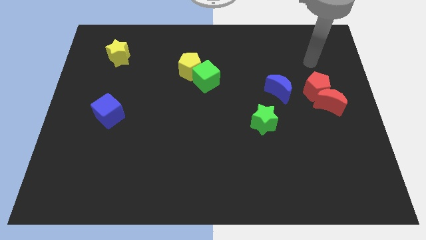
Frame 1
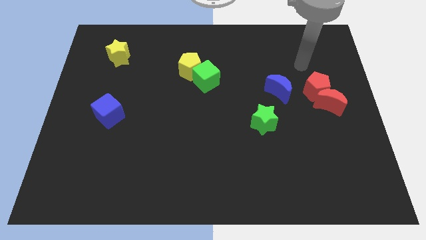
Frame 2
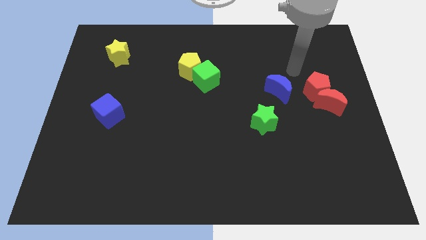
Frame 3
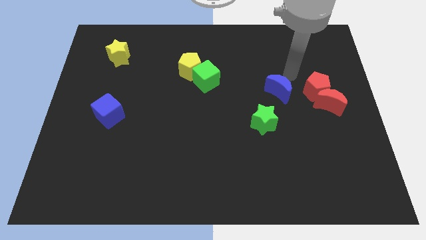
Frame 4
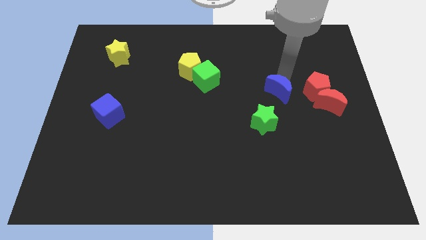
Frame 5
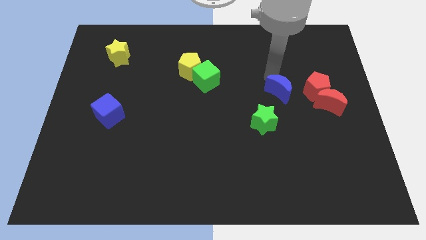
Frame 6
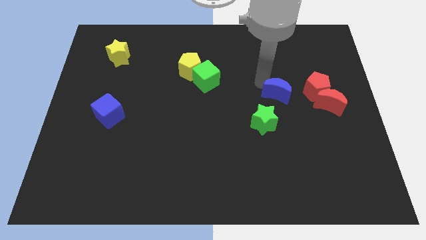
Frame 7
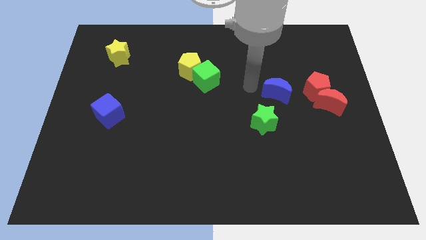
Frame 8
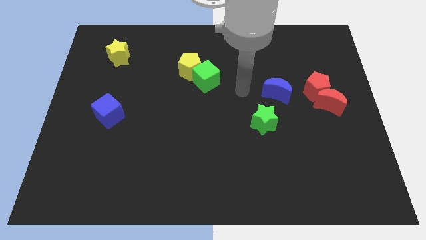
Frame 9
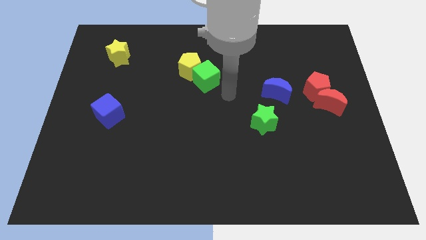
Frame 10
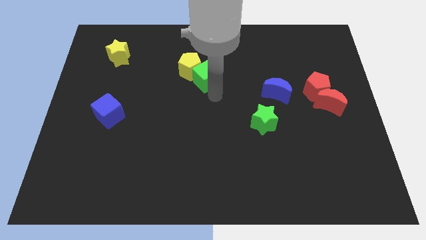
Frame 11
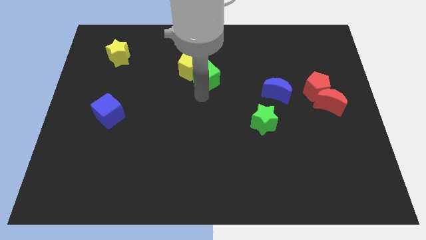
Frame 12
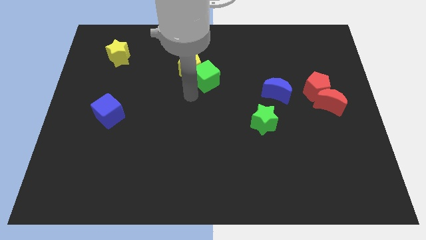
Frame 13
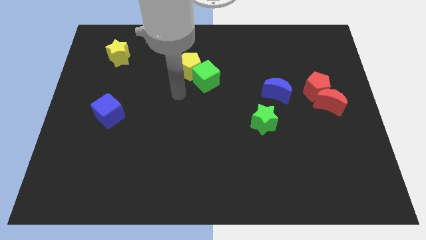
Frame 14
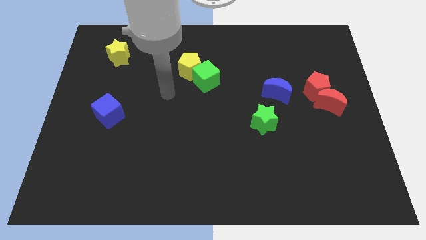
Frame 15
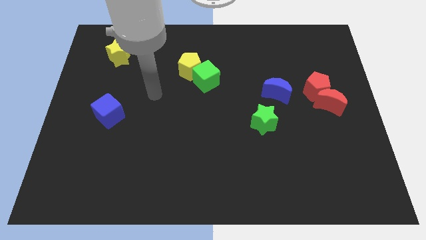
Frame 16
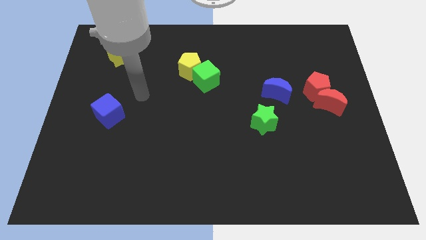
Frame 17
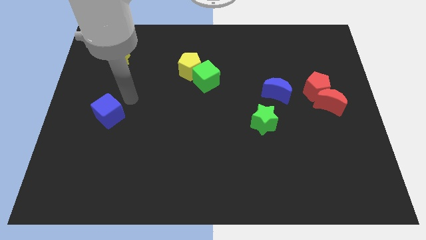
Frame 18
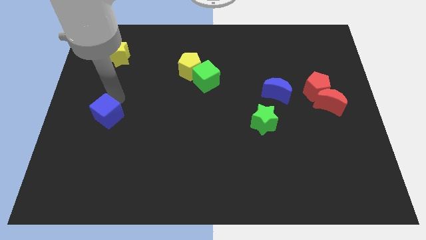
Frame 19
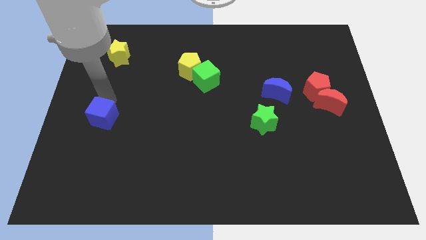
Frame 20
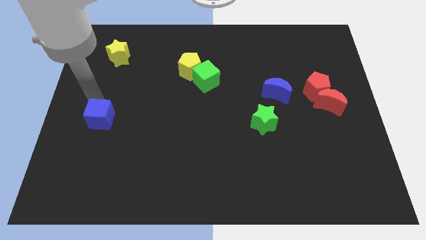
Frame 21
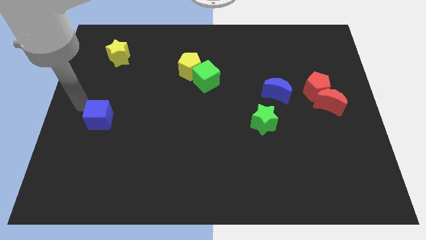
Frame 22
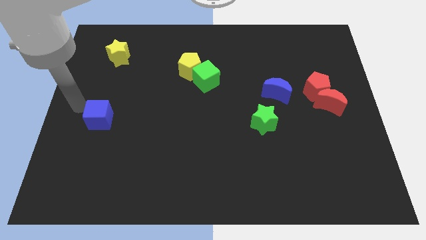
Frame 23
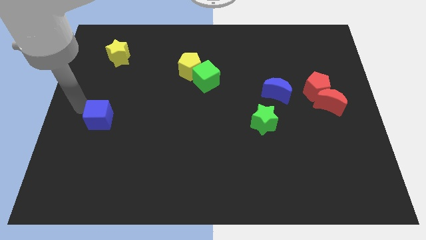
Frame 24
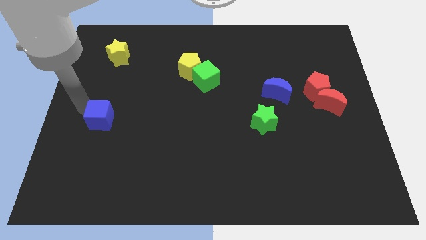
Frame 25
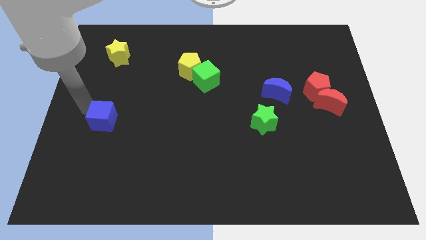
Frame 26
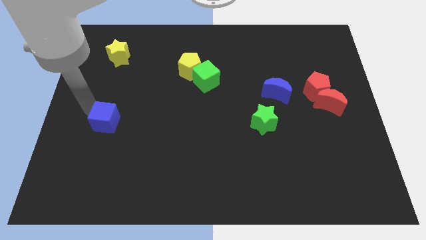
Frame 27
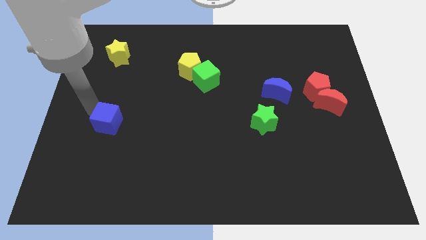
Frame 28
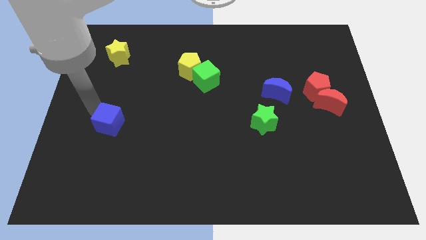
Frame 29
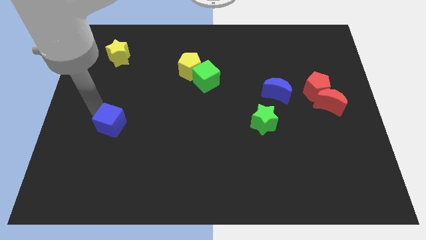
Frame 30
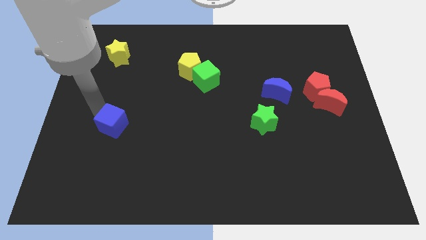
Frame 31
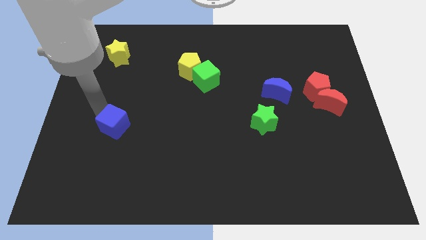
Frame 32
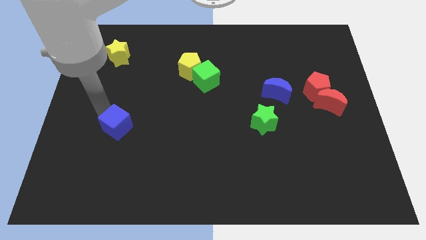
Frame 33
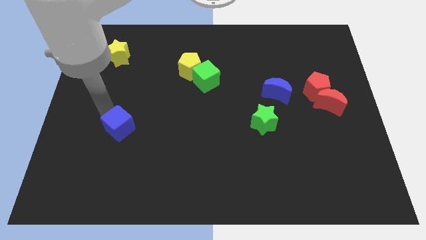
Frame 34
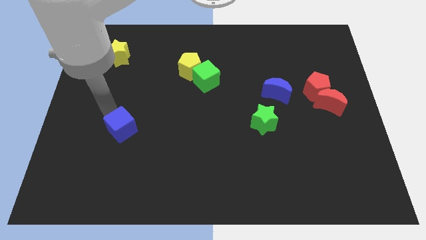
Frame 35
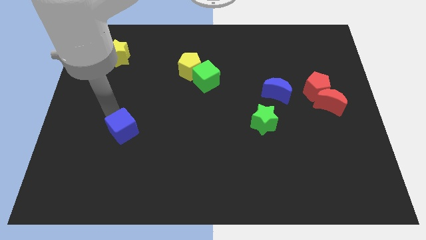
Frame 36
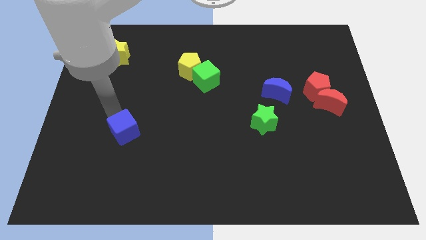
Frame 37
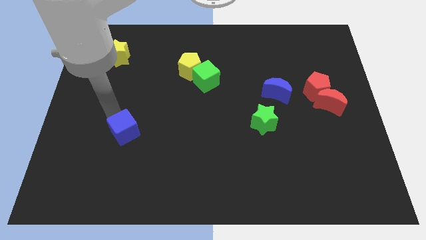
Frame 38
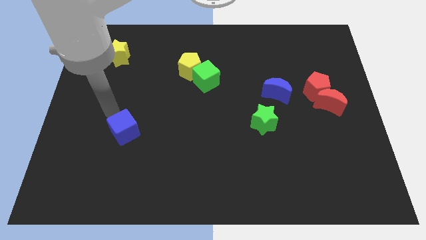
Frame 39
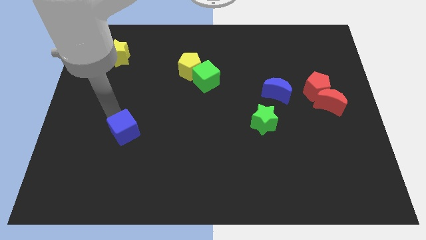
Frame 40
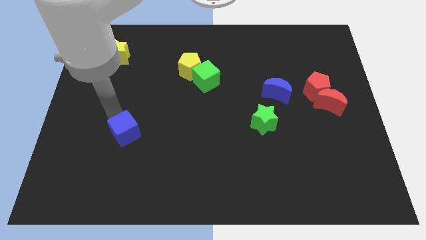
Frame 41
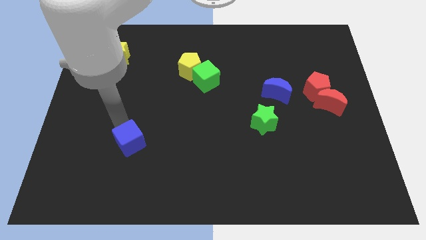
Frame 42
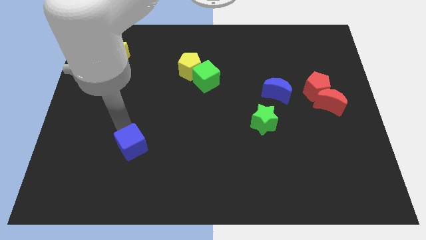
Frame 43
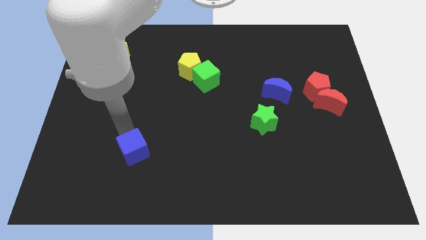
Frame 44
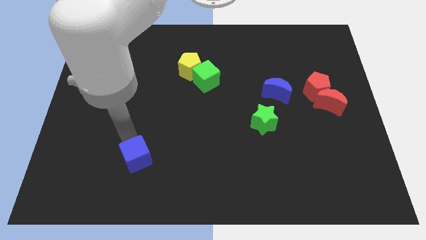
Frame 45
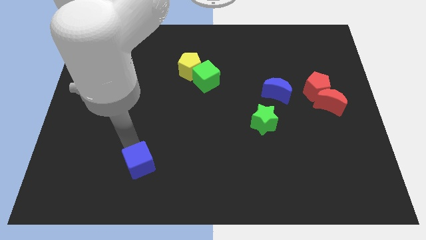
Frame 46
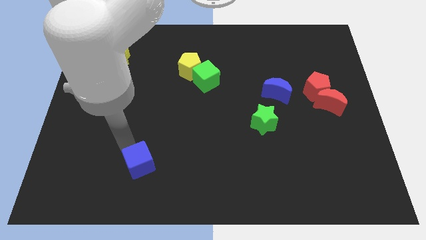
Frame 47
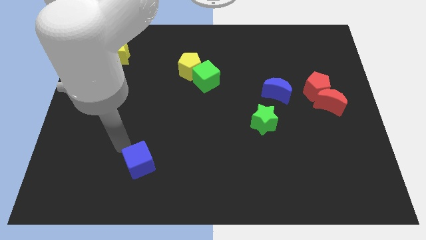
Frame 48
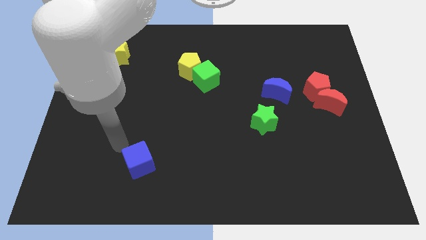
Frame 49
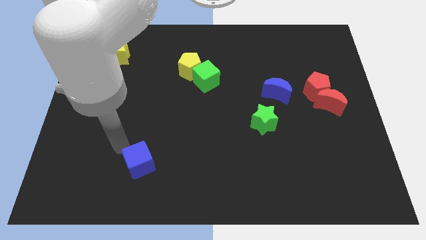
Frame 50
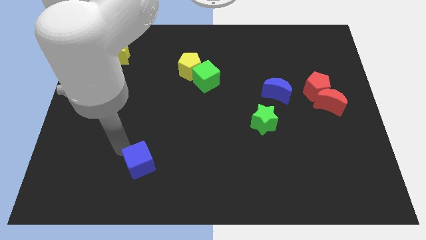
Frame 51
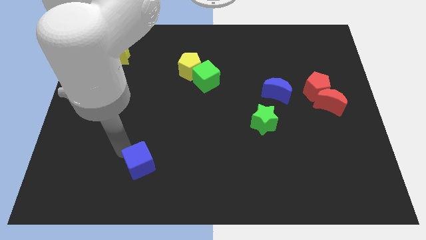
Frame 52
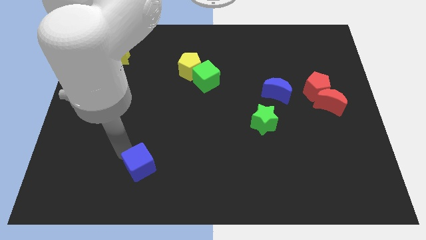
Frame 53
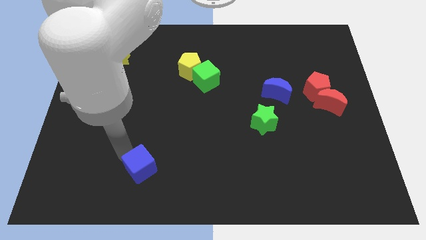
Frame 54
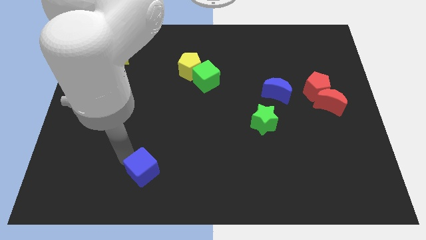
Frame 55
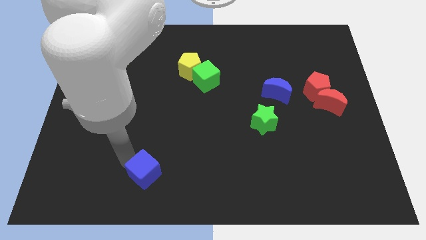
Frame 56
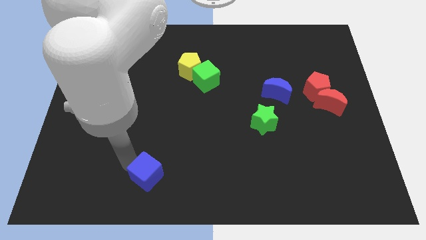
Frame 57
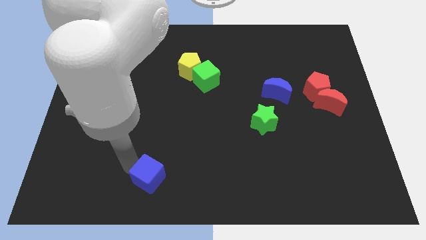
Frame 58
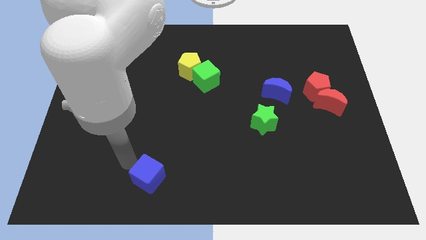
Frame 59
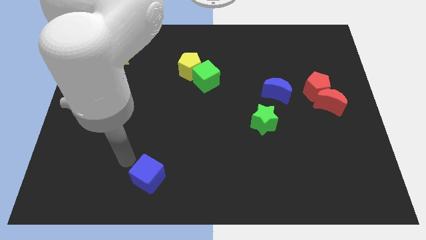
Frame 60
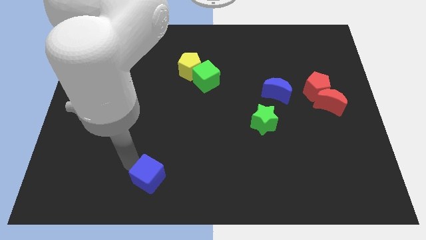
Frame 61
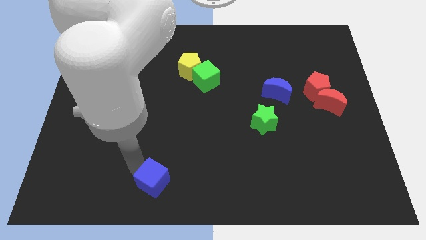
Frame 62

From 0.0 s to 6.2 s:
put the blue cube to the bottom side

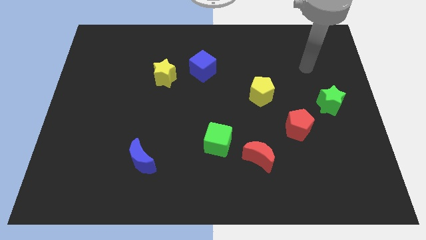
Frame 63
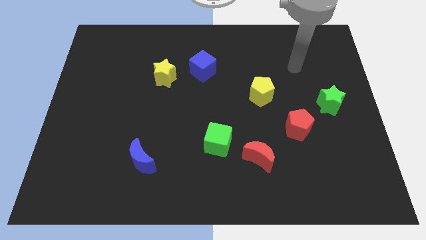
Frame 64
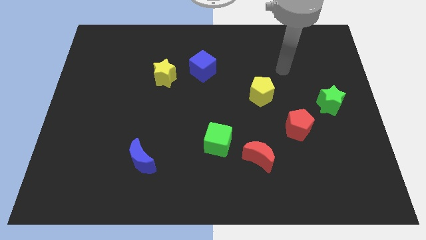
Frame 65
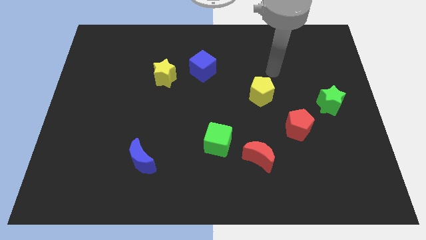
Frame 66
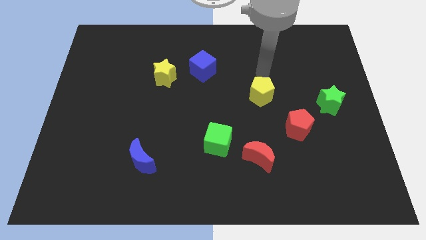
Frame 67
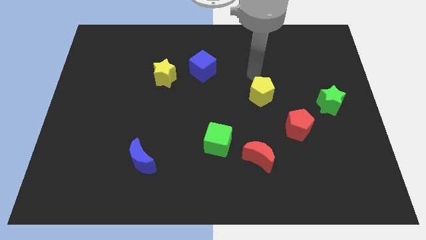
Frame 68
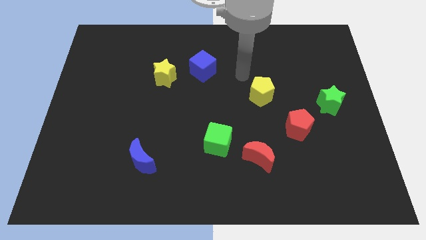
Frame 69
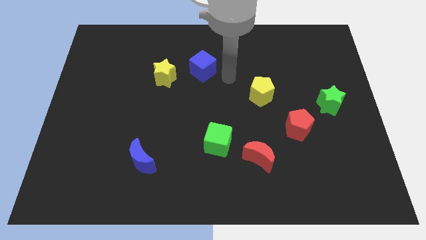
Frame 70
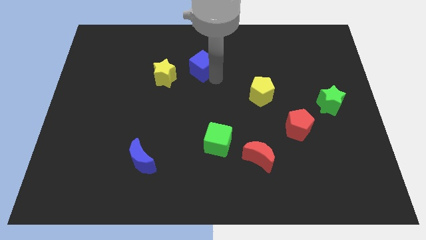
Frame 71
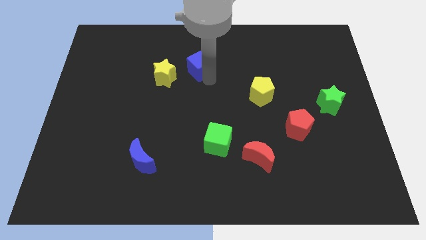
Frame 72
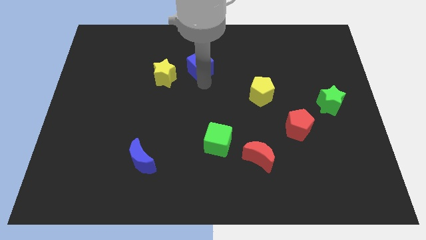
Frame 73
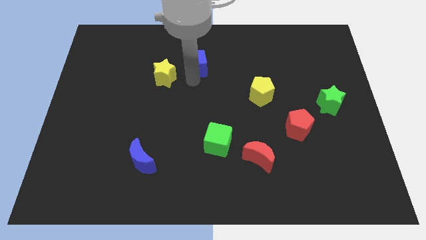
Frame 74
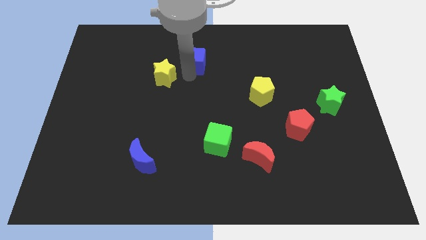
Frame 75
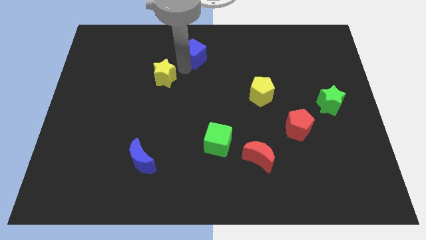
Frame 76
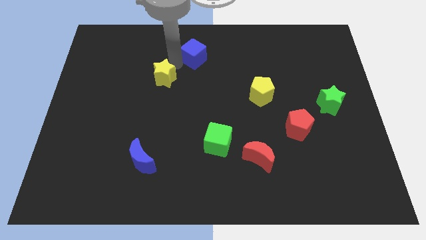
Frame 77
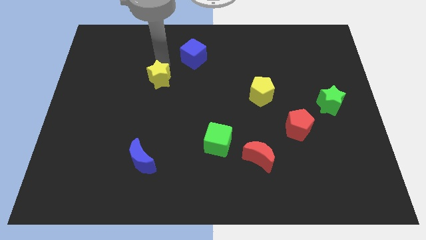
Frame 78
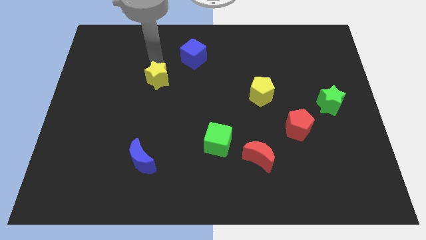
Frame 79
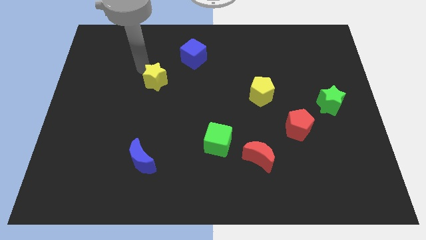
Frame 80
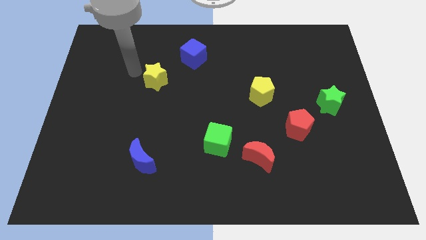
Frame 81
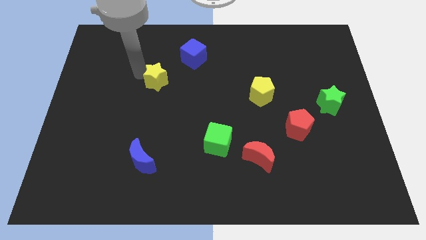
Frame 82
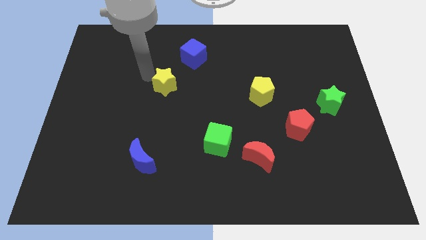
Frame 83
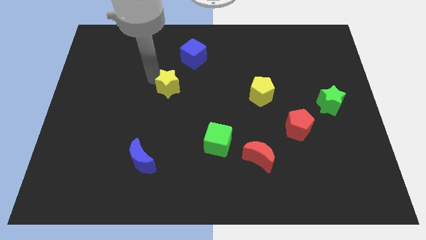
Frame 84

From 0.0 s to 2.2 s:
push the yellow star to the middle of the board
